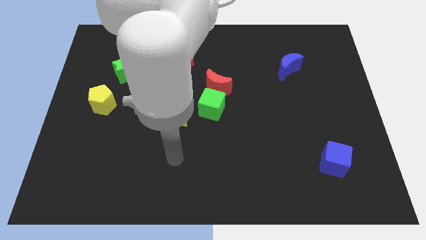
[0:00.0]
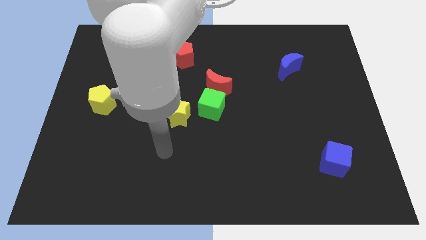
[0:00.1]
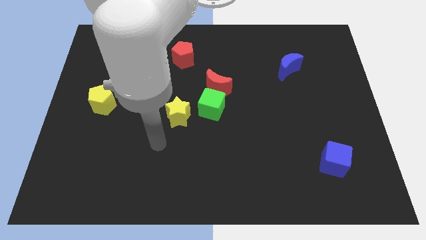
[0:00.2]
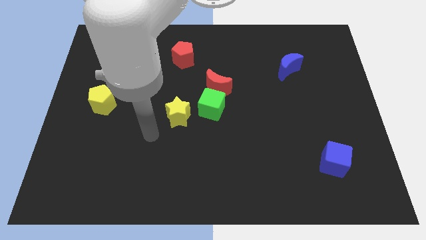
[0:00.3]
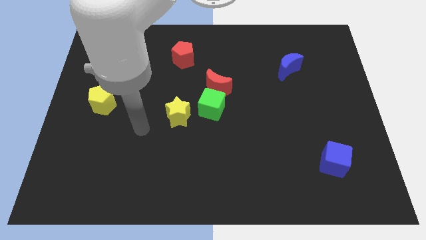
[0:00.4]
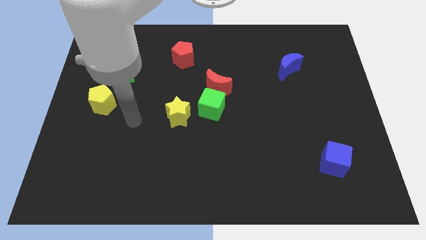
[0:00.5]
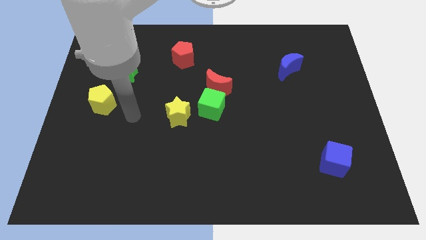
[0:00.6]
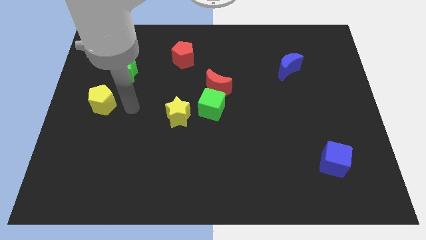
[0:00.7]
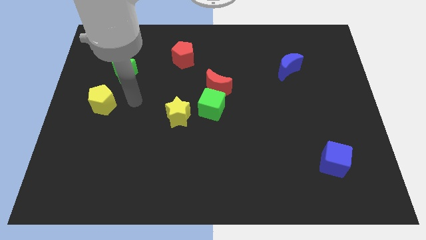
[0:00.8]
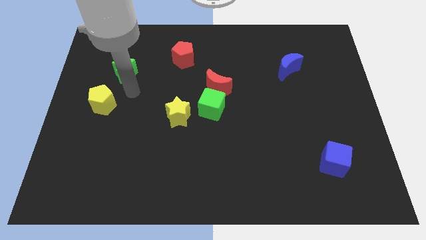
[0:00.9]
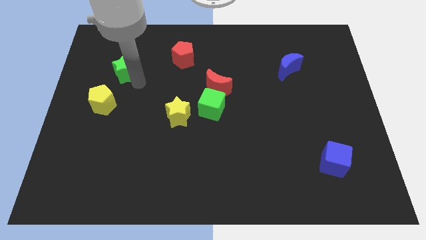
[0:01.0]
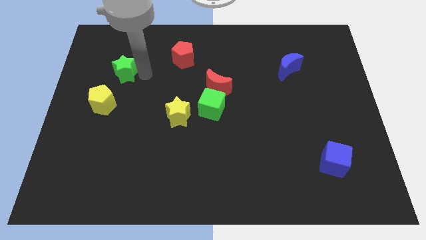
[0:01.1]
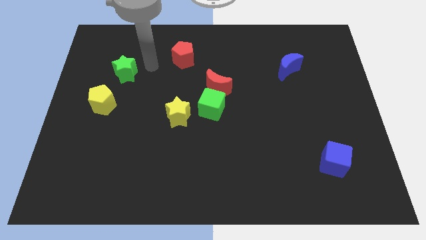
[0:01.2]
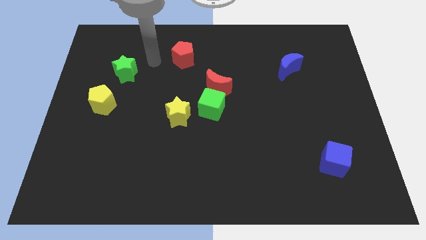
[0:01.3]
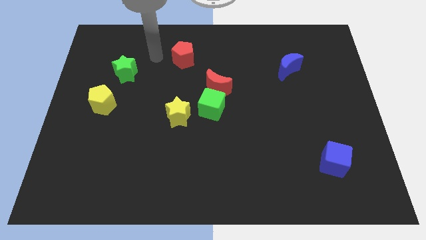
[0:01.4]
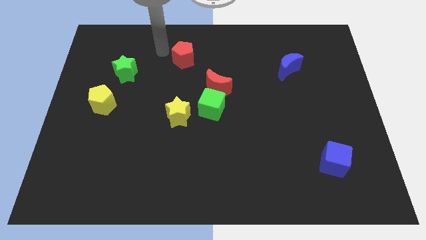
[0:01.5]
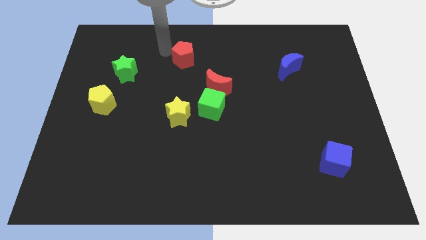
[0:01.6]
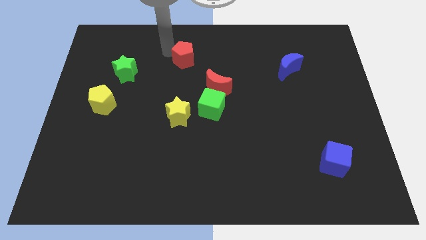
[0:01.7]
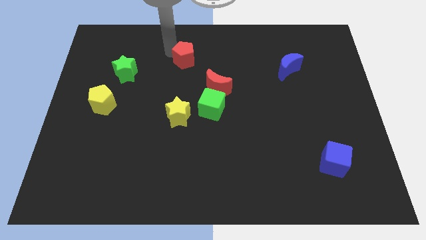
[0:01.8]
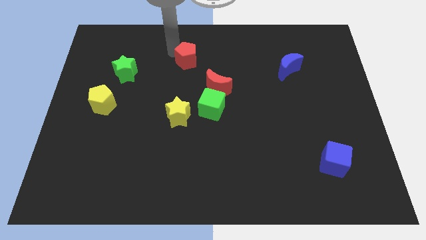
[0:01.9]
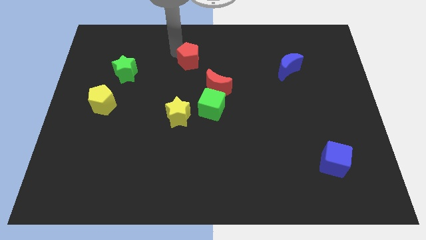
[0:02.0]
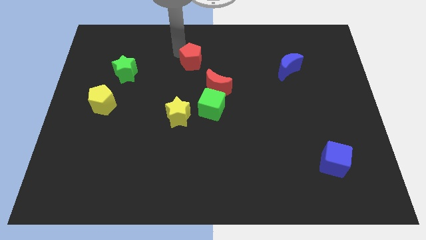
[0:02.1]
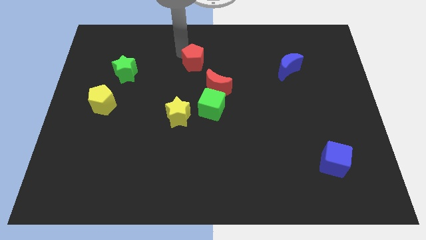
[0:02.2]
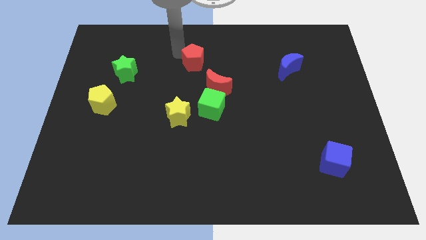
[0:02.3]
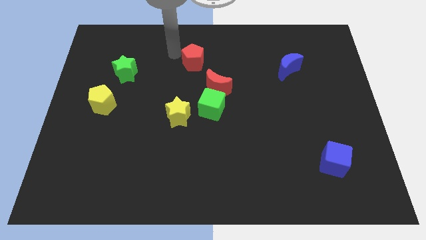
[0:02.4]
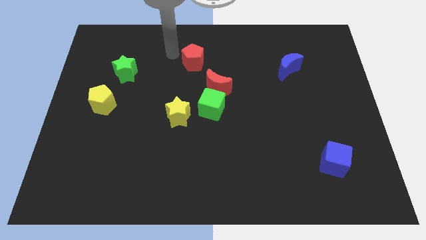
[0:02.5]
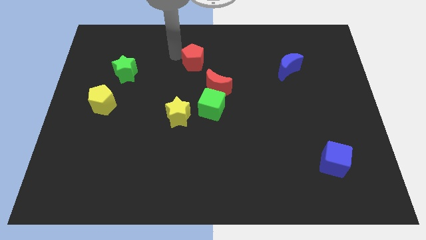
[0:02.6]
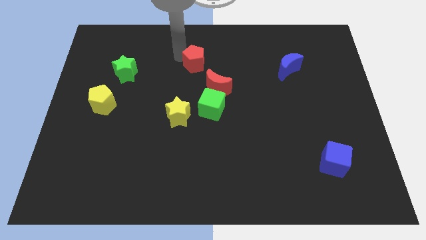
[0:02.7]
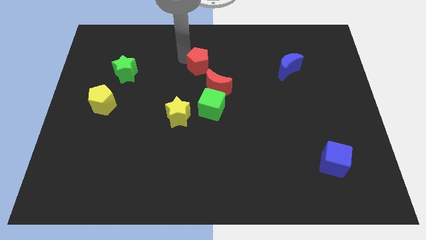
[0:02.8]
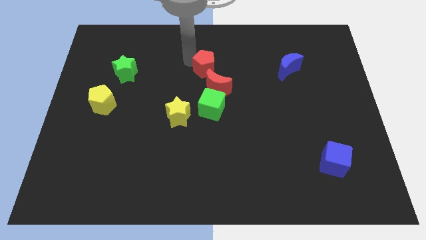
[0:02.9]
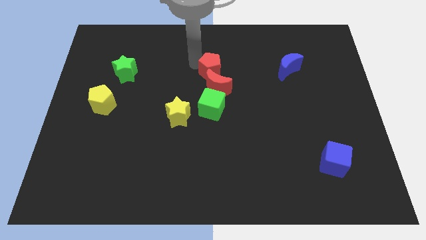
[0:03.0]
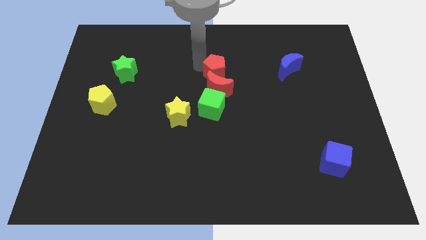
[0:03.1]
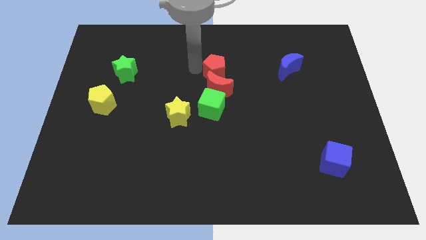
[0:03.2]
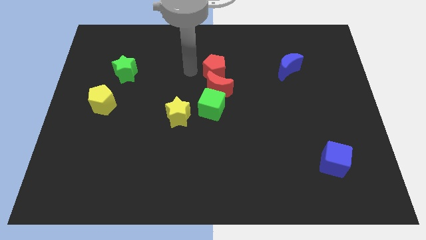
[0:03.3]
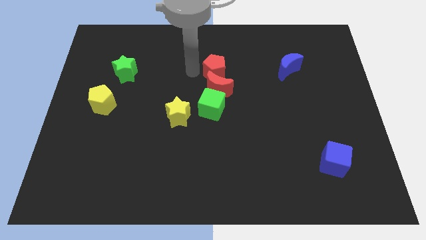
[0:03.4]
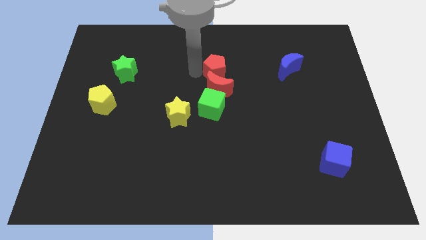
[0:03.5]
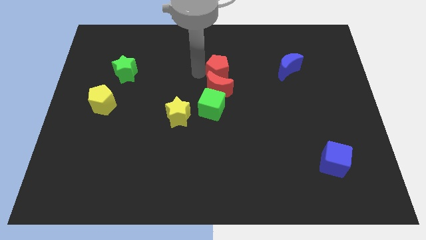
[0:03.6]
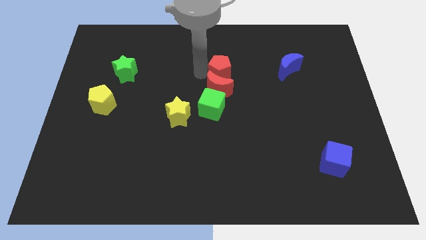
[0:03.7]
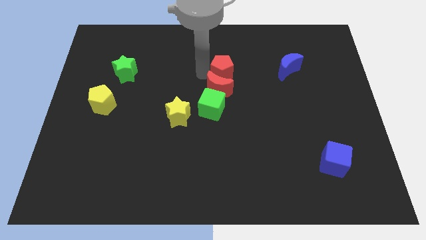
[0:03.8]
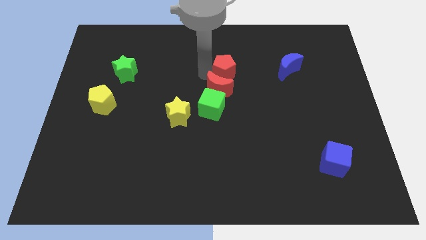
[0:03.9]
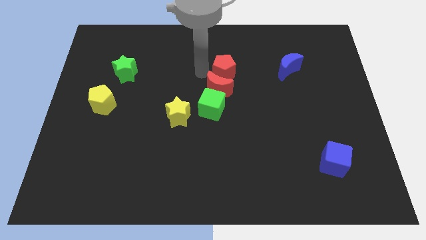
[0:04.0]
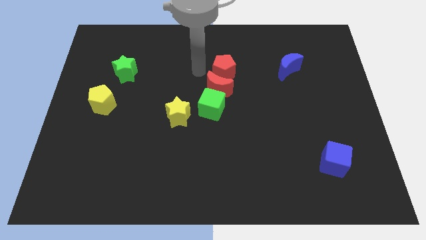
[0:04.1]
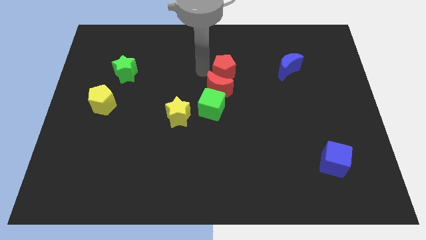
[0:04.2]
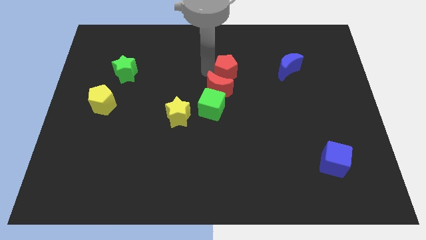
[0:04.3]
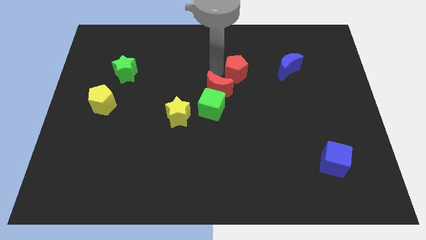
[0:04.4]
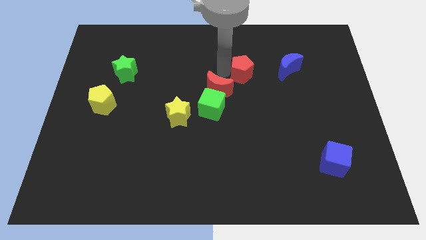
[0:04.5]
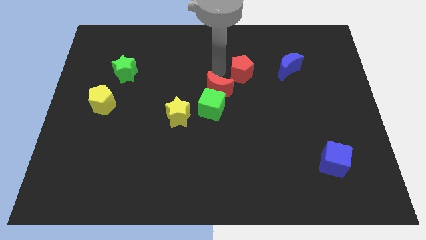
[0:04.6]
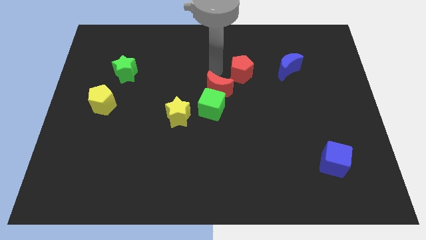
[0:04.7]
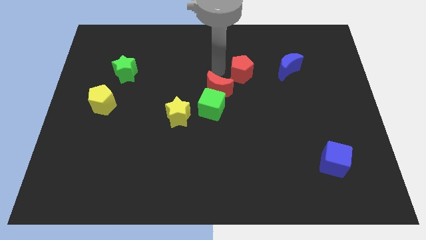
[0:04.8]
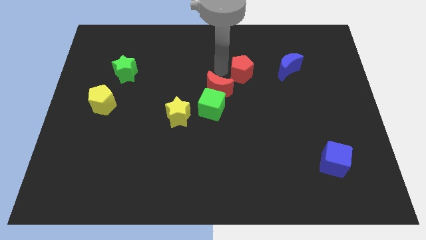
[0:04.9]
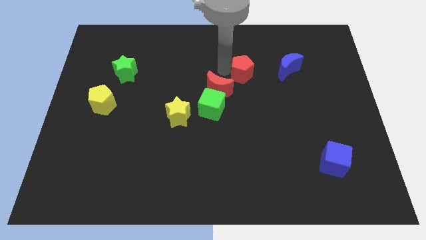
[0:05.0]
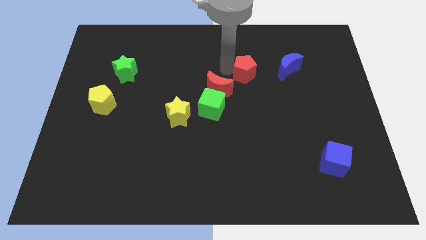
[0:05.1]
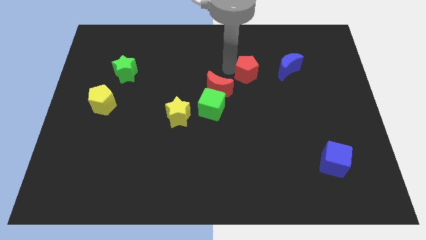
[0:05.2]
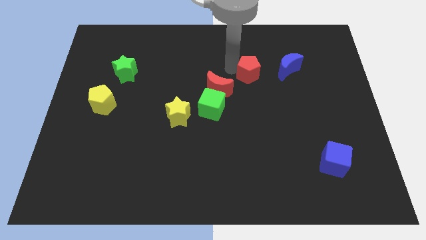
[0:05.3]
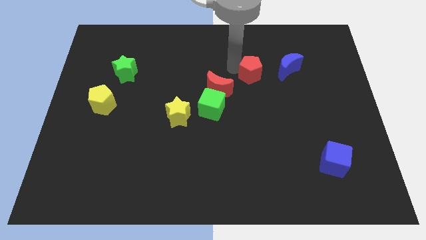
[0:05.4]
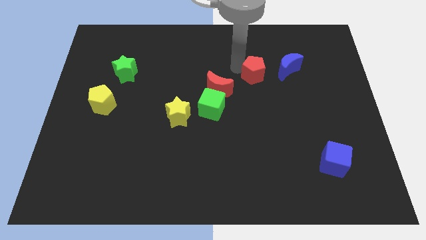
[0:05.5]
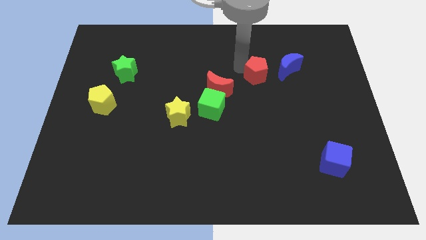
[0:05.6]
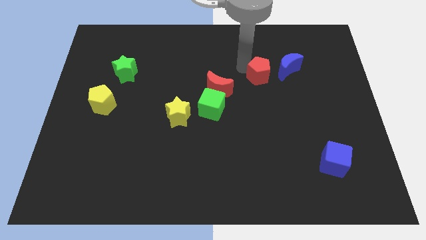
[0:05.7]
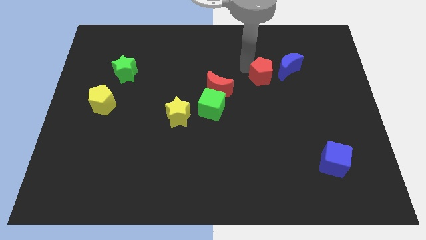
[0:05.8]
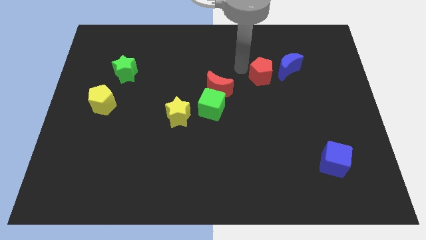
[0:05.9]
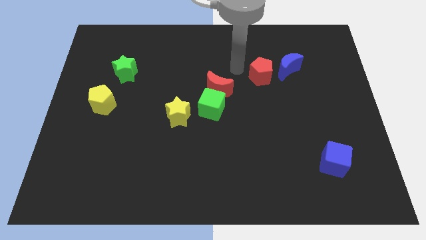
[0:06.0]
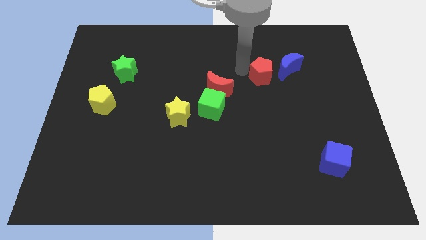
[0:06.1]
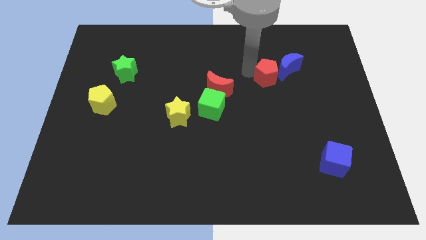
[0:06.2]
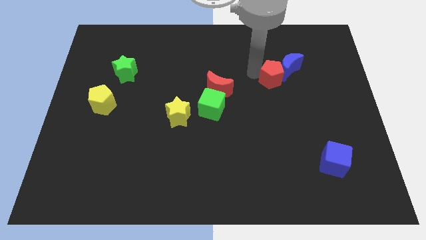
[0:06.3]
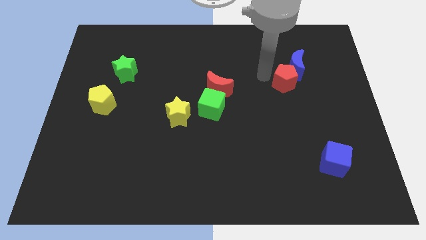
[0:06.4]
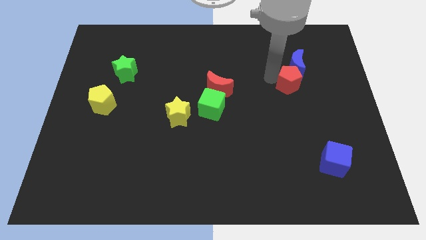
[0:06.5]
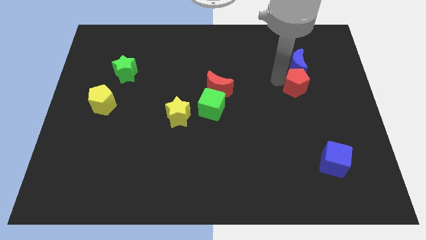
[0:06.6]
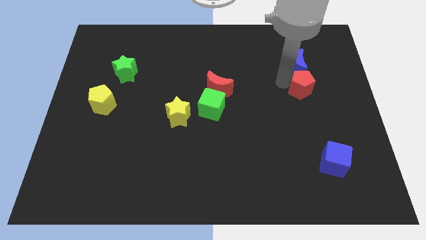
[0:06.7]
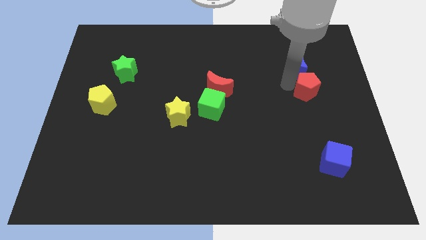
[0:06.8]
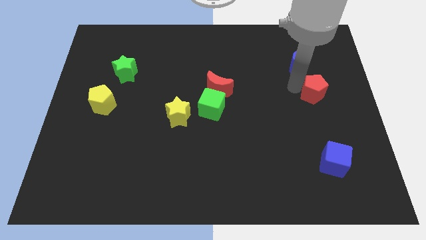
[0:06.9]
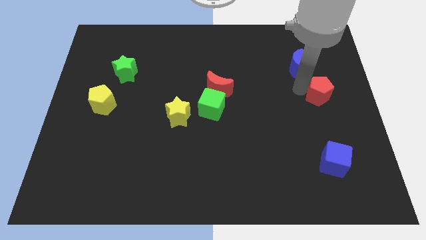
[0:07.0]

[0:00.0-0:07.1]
move the red pentagon to the right side
